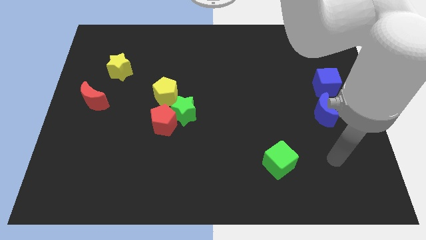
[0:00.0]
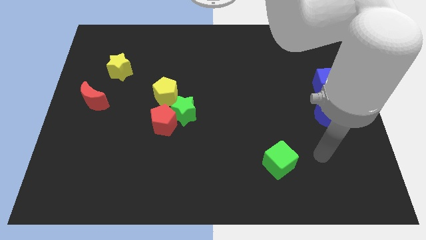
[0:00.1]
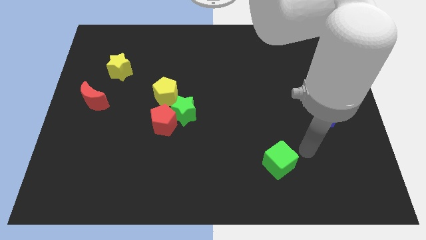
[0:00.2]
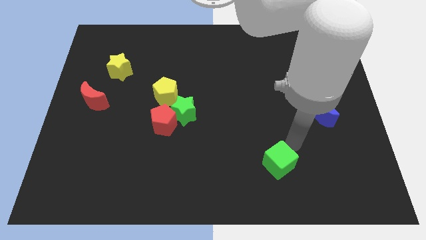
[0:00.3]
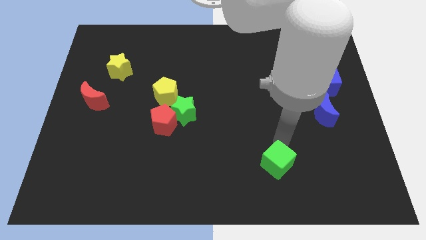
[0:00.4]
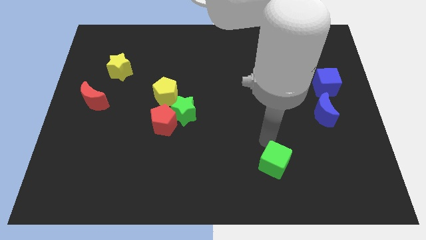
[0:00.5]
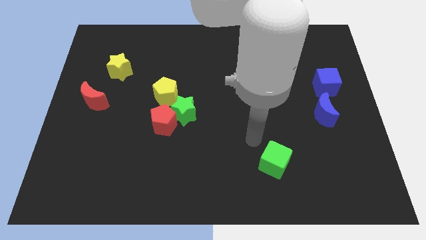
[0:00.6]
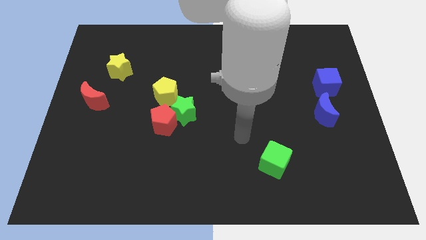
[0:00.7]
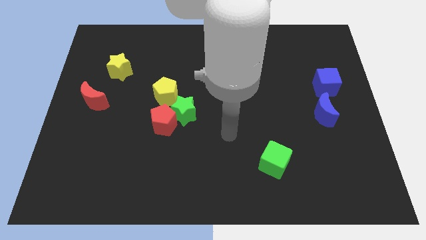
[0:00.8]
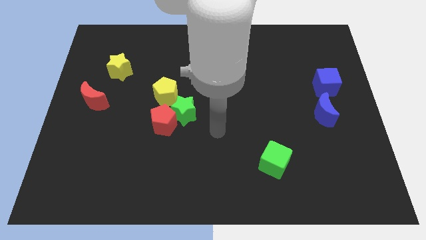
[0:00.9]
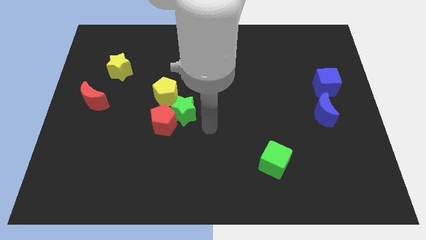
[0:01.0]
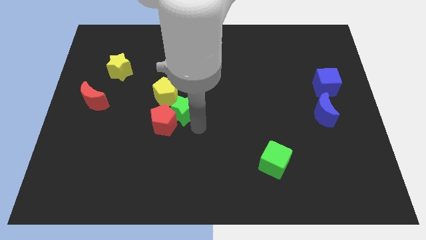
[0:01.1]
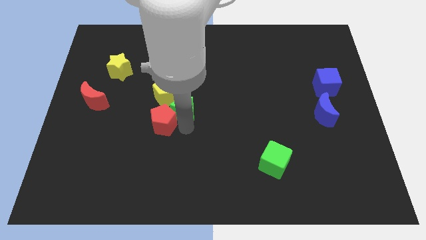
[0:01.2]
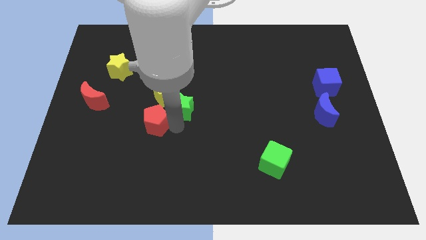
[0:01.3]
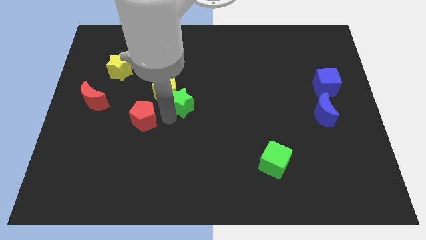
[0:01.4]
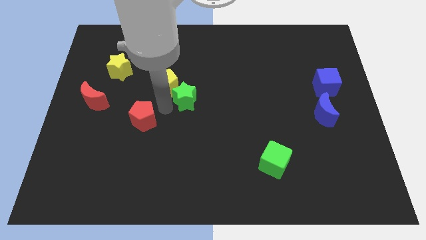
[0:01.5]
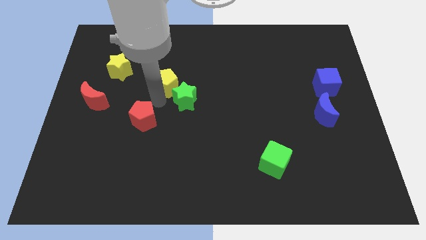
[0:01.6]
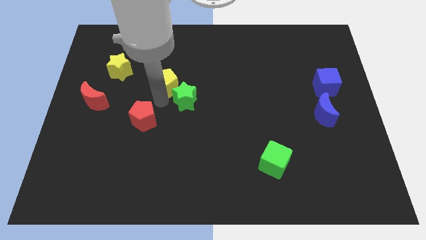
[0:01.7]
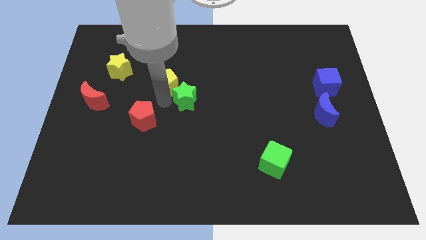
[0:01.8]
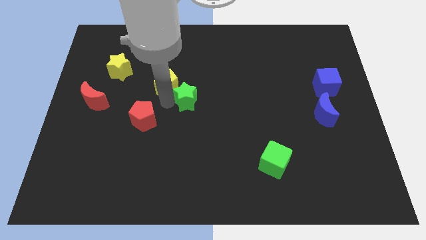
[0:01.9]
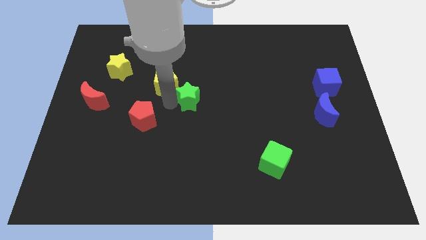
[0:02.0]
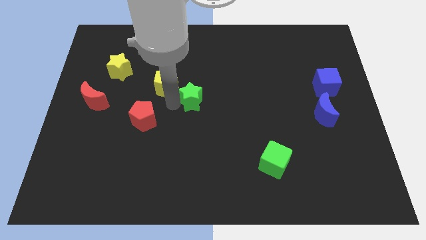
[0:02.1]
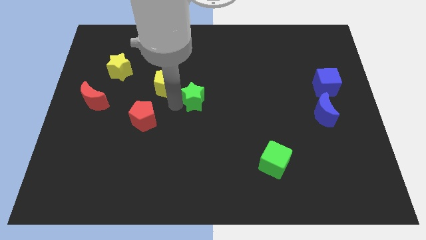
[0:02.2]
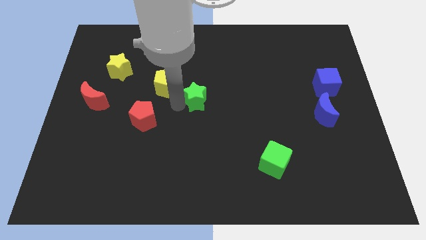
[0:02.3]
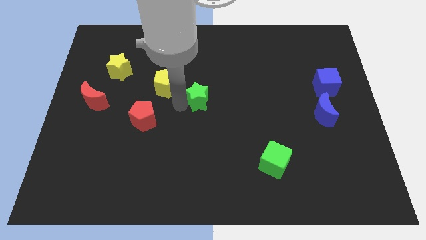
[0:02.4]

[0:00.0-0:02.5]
pull the green star apart from the red pentagon and yellow pentagon

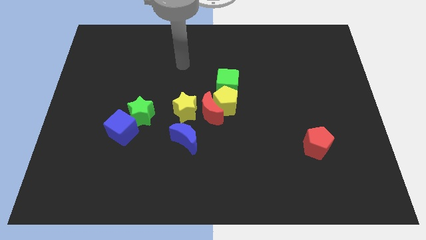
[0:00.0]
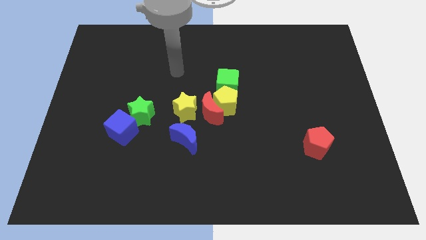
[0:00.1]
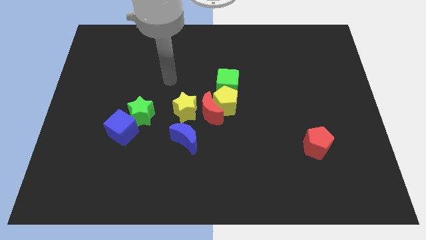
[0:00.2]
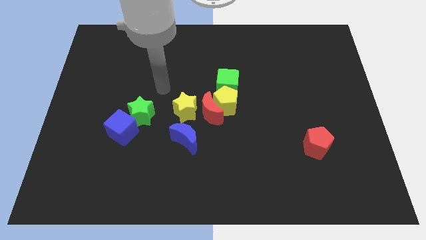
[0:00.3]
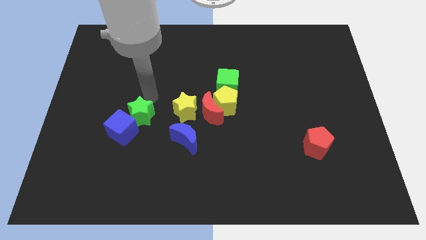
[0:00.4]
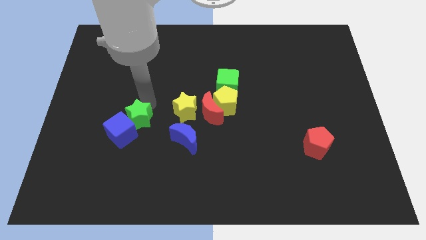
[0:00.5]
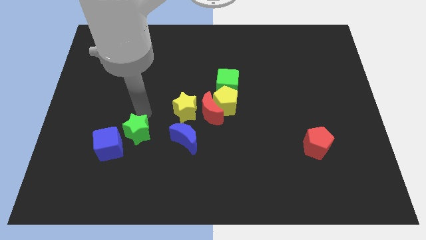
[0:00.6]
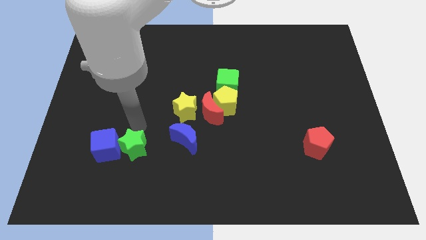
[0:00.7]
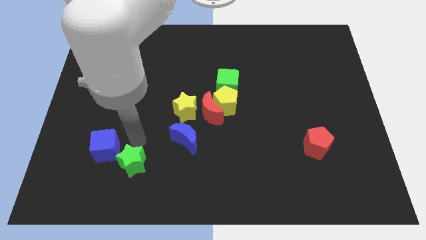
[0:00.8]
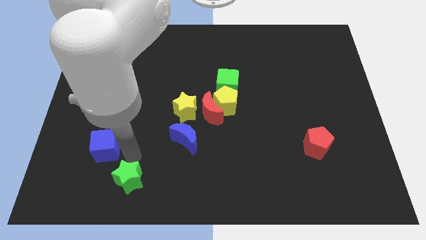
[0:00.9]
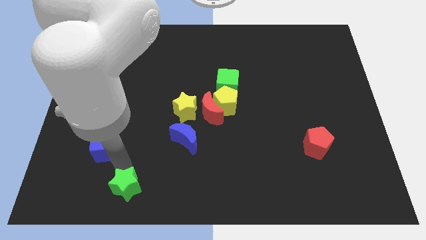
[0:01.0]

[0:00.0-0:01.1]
pull the blue cube apart from the green star

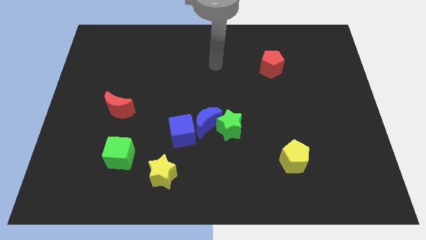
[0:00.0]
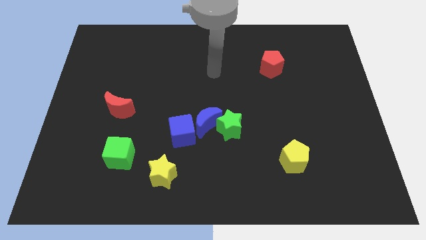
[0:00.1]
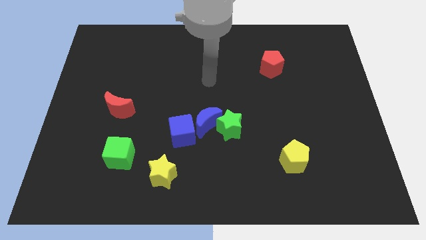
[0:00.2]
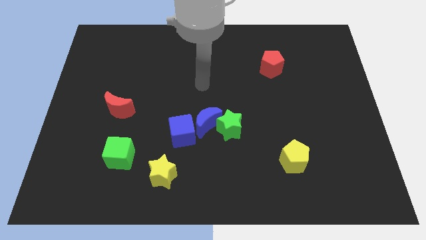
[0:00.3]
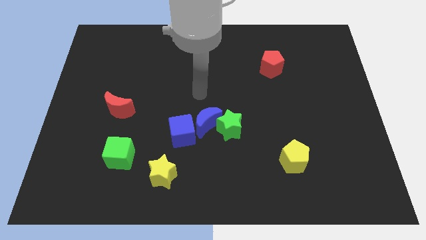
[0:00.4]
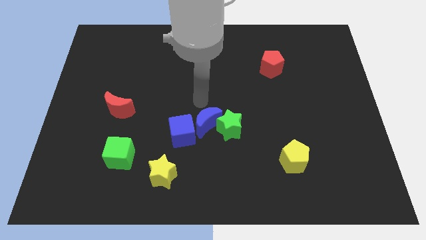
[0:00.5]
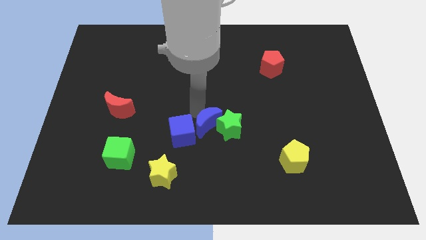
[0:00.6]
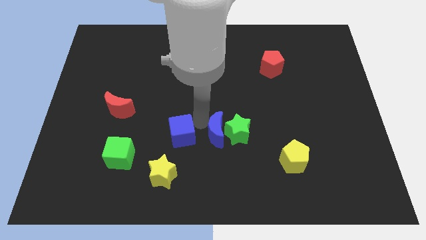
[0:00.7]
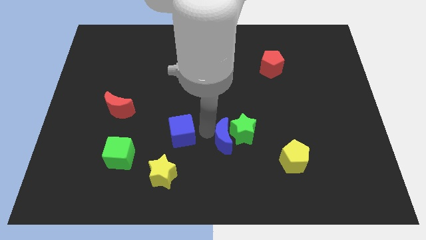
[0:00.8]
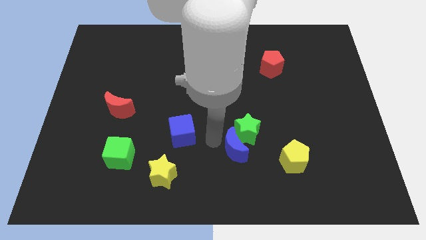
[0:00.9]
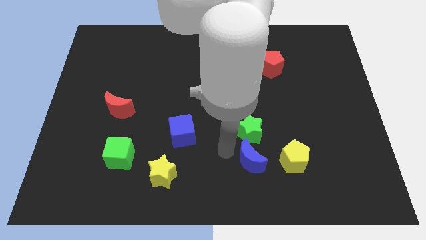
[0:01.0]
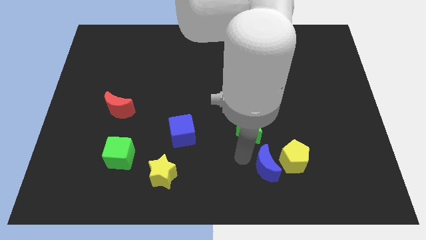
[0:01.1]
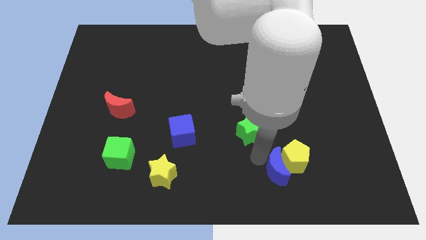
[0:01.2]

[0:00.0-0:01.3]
pull the green star apart from the blue moon

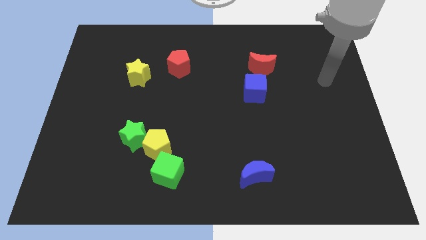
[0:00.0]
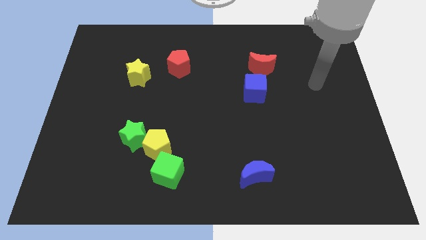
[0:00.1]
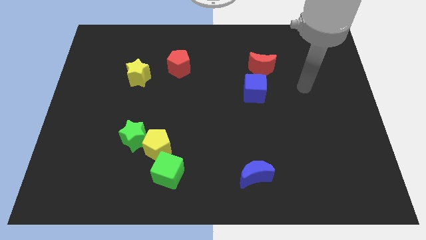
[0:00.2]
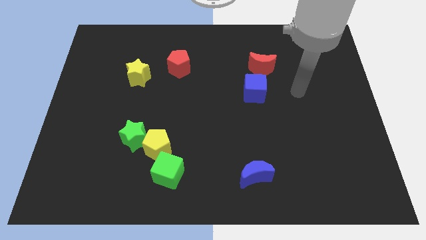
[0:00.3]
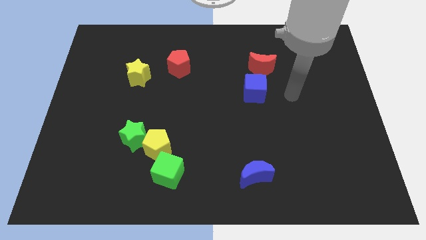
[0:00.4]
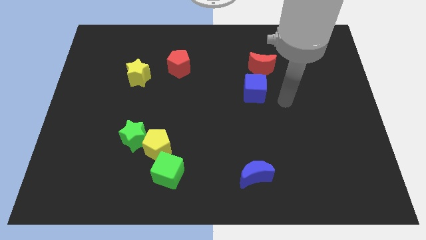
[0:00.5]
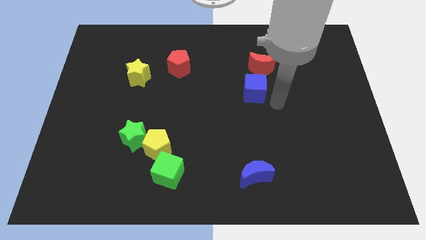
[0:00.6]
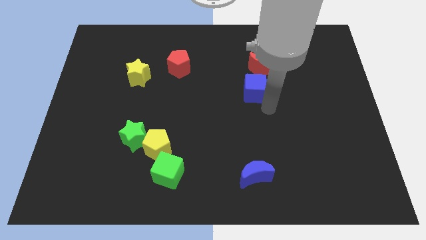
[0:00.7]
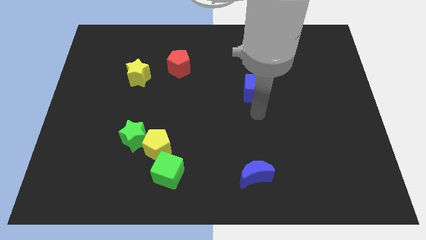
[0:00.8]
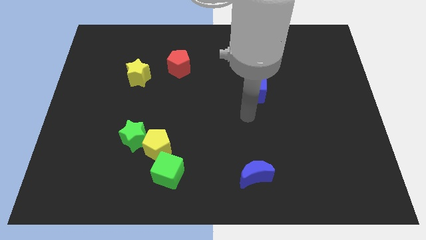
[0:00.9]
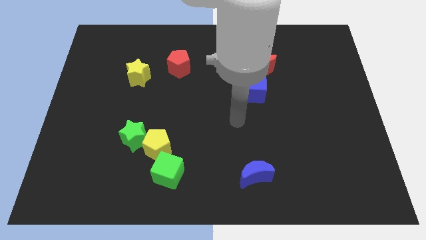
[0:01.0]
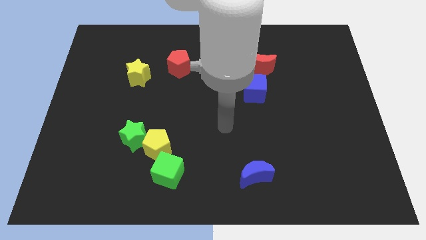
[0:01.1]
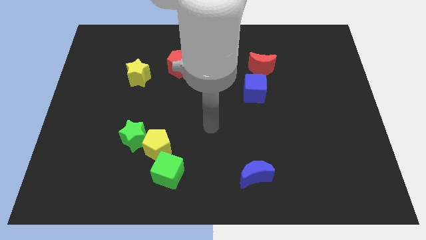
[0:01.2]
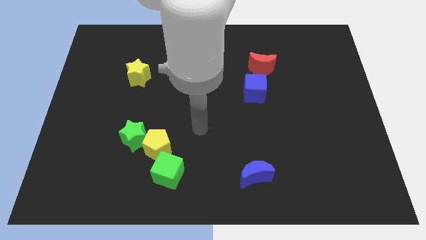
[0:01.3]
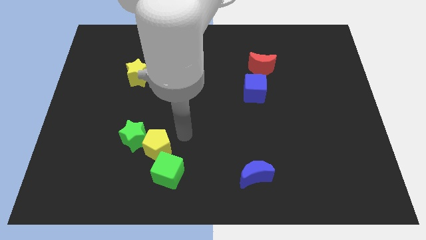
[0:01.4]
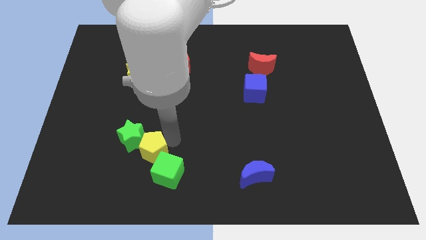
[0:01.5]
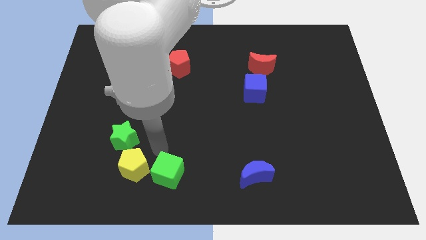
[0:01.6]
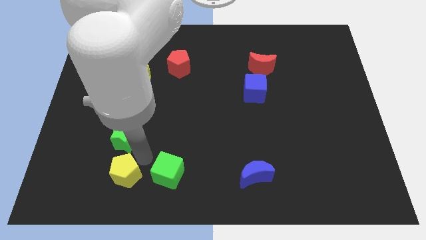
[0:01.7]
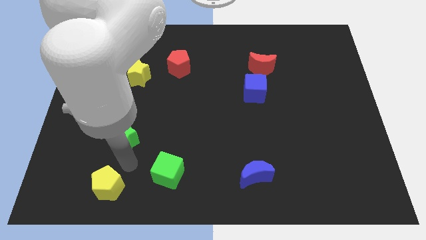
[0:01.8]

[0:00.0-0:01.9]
separate the green star from the yellow pentagon

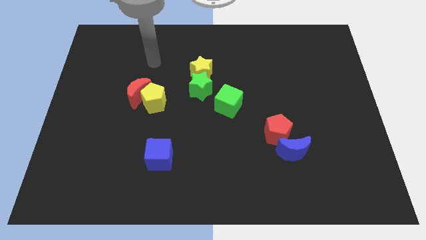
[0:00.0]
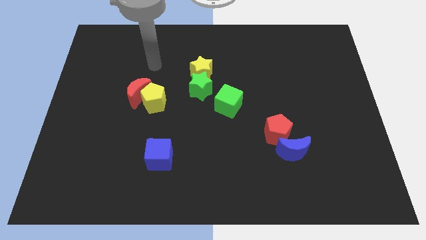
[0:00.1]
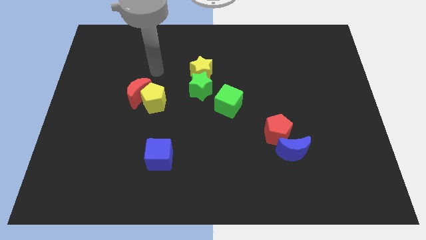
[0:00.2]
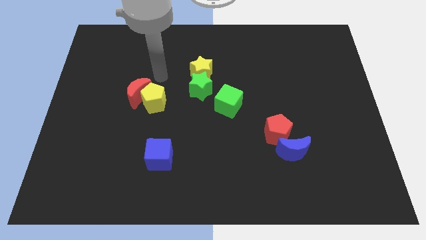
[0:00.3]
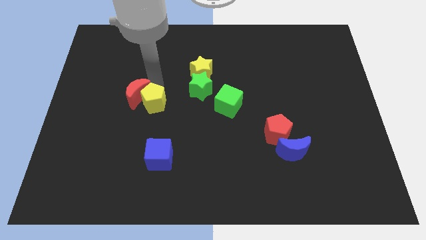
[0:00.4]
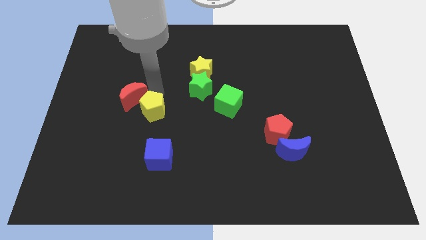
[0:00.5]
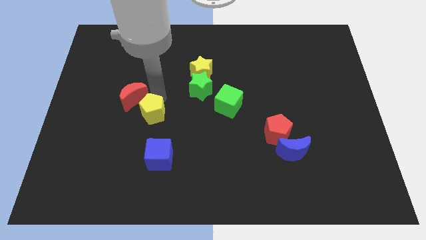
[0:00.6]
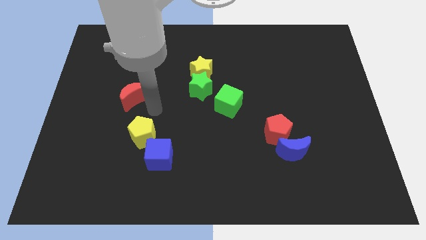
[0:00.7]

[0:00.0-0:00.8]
pull the red moon apart from the yellow pentagon

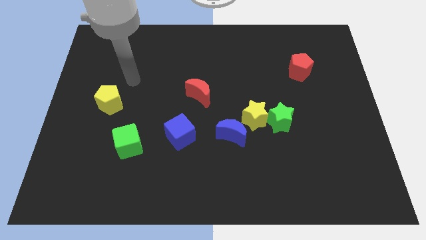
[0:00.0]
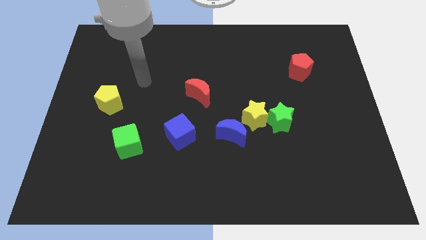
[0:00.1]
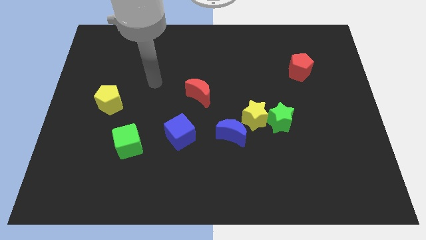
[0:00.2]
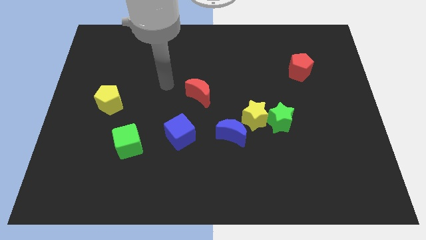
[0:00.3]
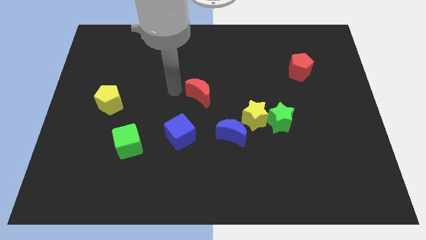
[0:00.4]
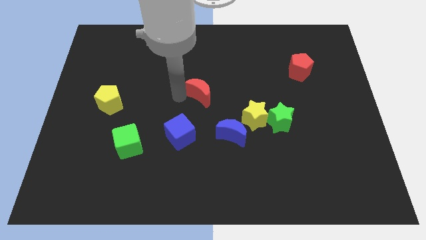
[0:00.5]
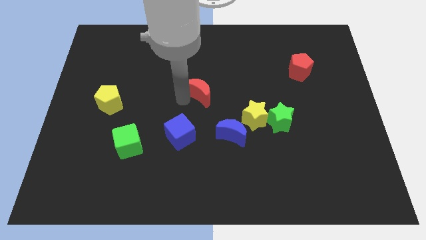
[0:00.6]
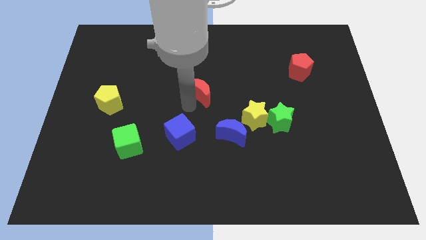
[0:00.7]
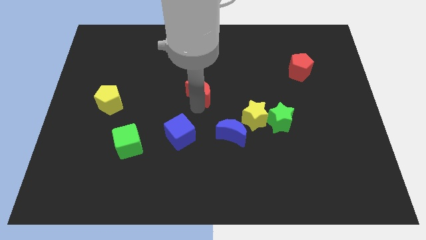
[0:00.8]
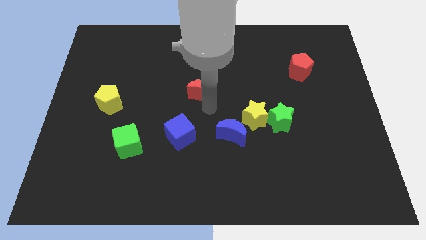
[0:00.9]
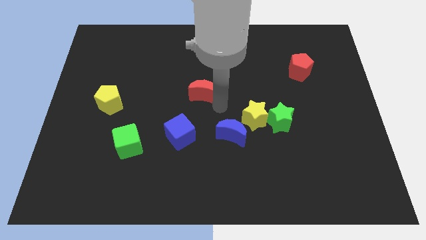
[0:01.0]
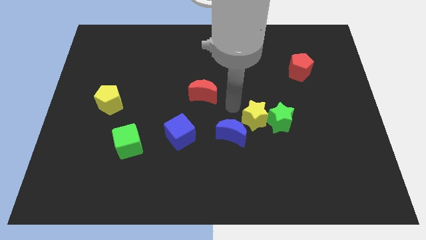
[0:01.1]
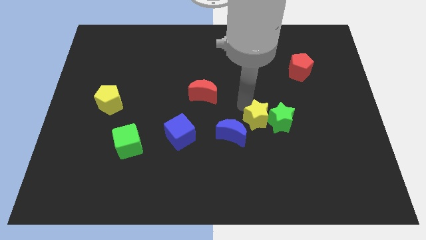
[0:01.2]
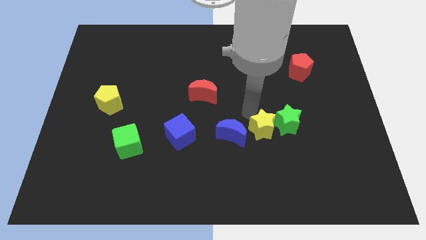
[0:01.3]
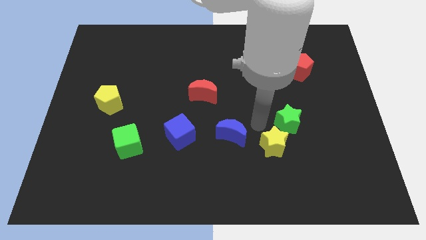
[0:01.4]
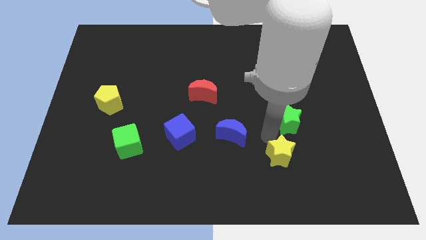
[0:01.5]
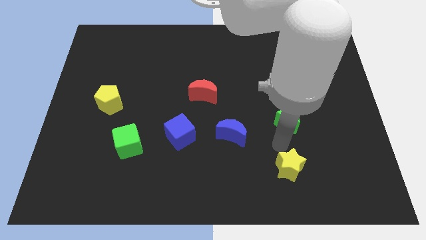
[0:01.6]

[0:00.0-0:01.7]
move the green star away from the yellow star

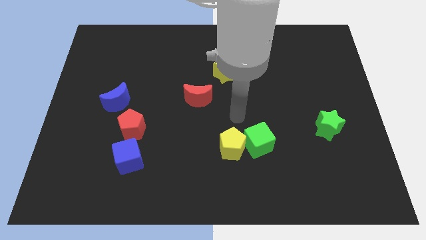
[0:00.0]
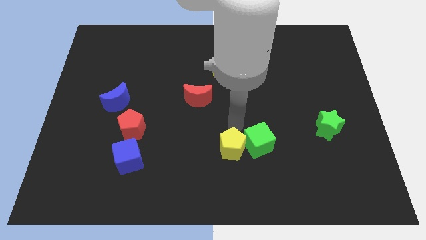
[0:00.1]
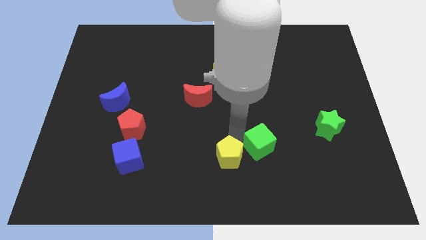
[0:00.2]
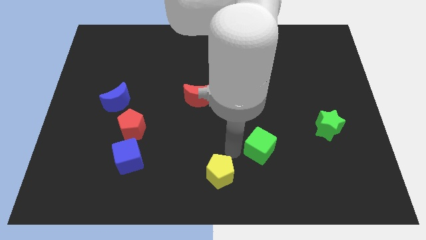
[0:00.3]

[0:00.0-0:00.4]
pull the green cube apart from the yellow pentagon
